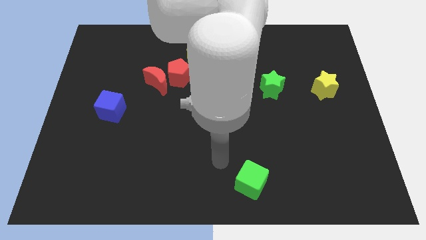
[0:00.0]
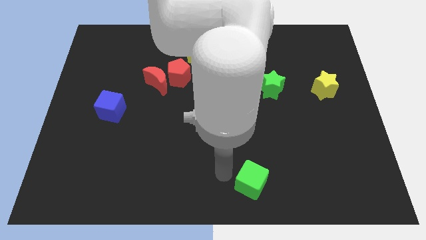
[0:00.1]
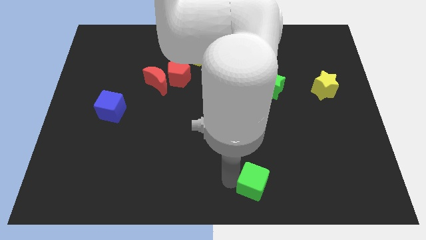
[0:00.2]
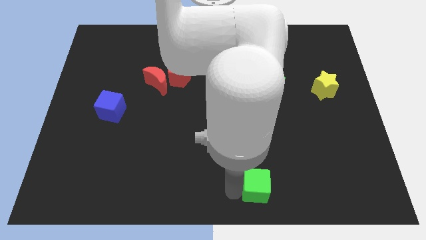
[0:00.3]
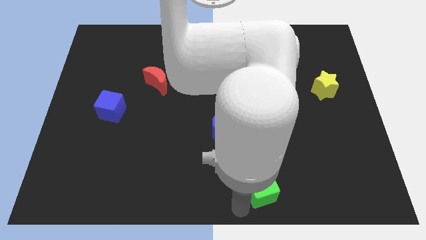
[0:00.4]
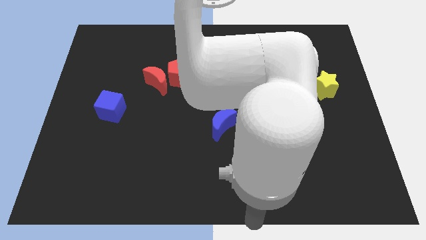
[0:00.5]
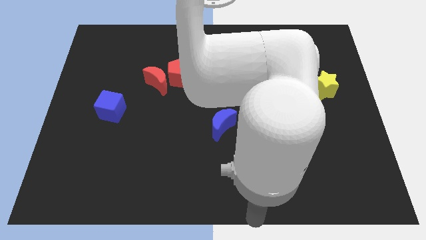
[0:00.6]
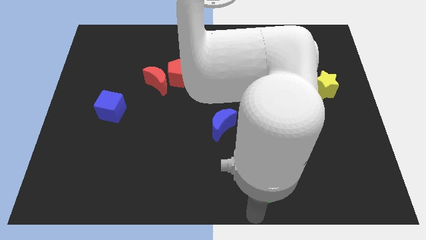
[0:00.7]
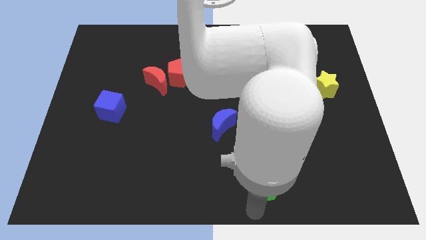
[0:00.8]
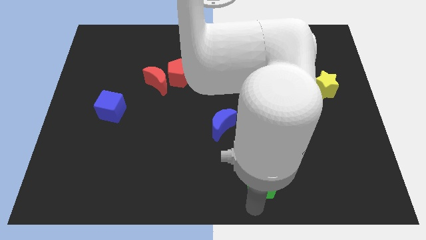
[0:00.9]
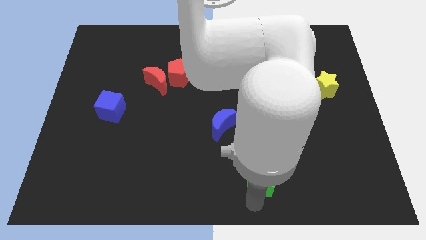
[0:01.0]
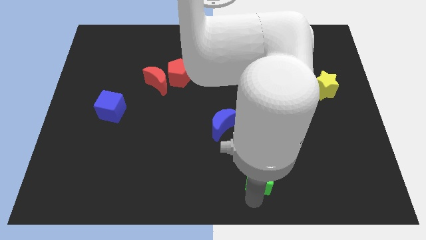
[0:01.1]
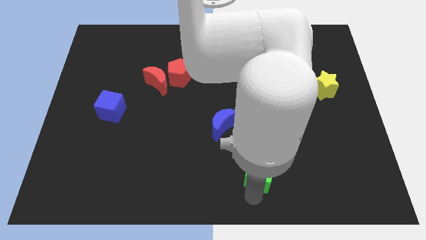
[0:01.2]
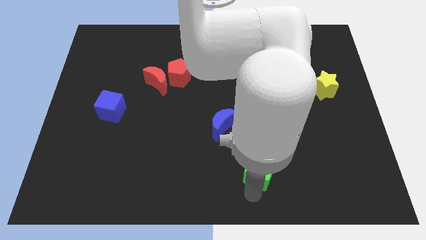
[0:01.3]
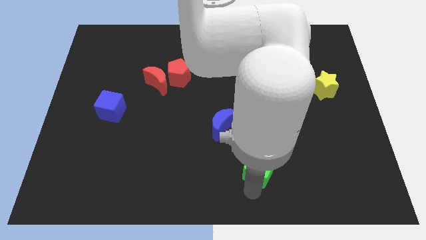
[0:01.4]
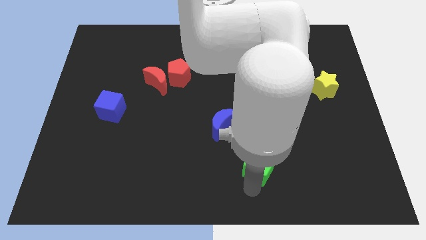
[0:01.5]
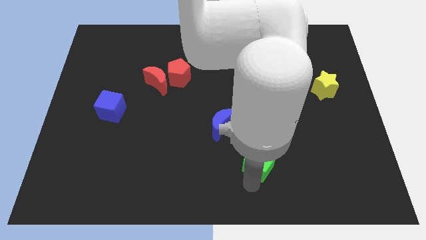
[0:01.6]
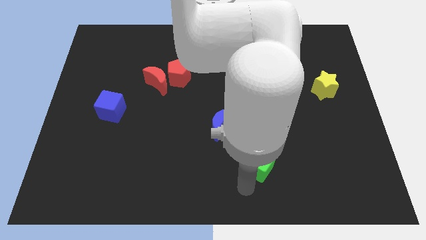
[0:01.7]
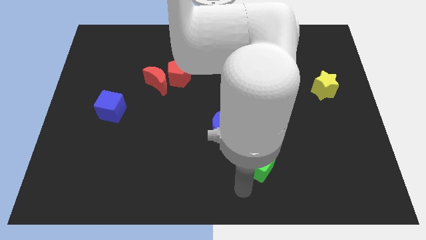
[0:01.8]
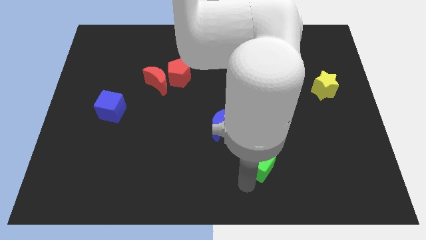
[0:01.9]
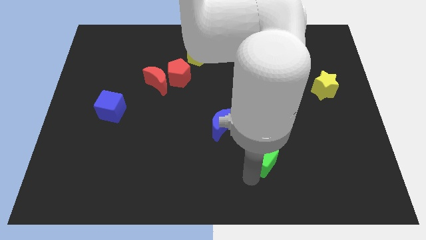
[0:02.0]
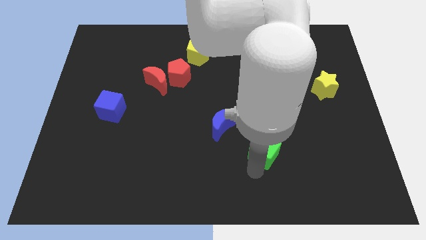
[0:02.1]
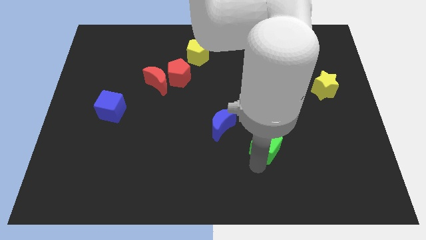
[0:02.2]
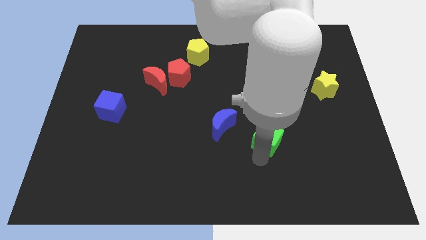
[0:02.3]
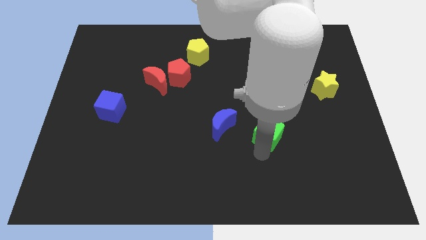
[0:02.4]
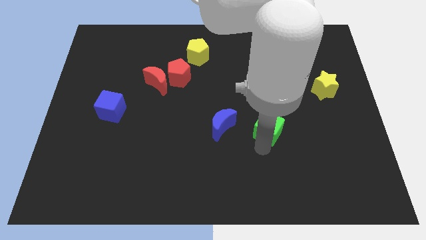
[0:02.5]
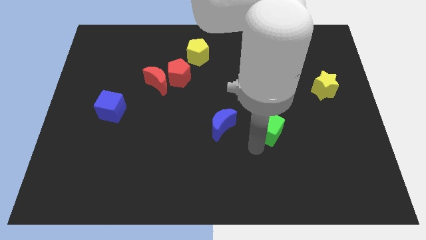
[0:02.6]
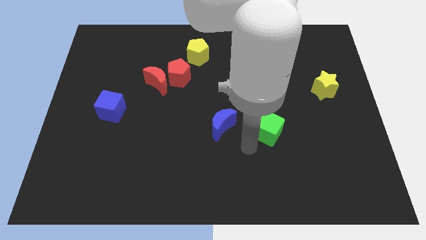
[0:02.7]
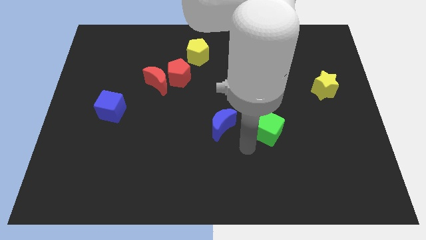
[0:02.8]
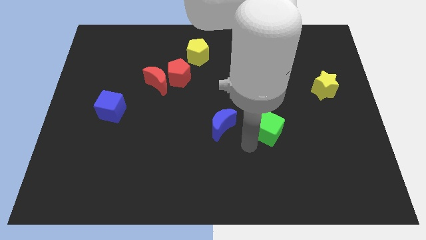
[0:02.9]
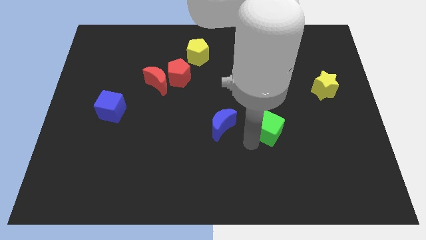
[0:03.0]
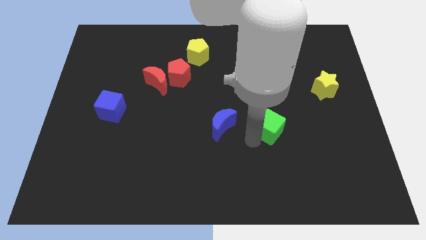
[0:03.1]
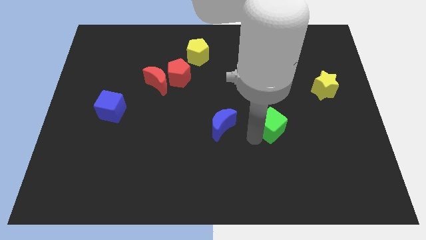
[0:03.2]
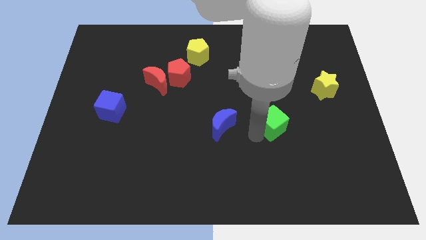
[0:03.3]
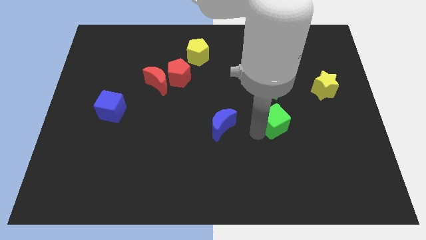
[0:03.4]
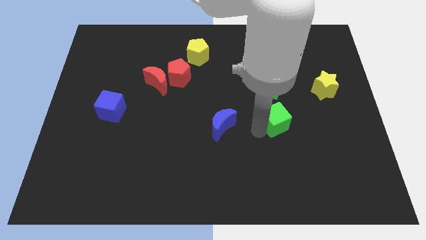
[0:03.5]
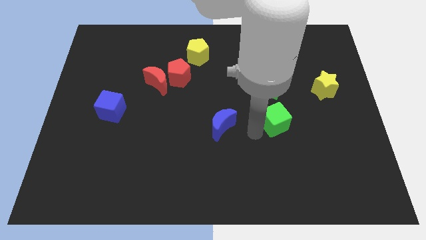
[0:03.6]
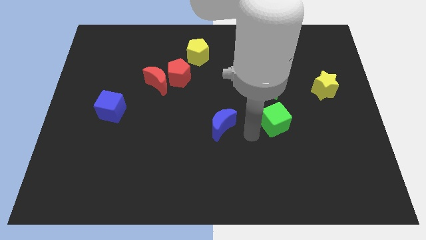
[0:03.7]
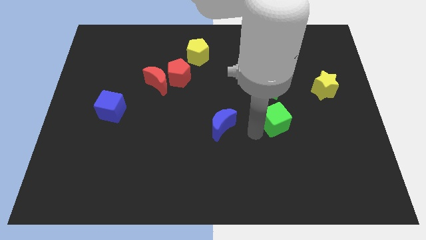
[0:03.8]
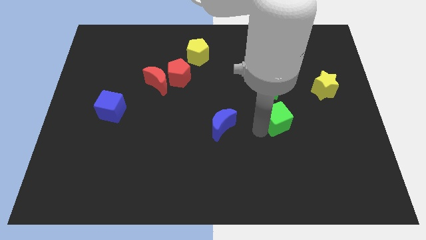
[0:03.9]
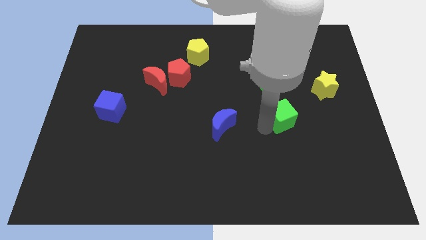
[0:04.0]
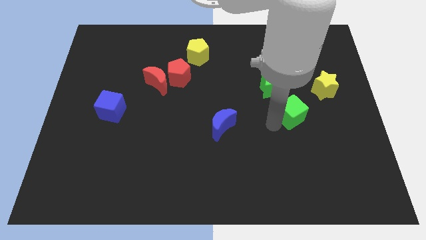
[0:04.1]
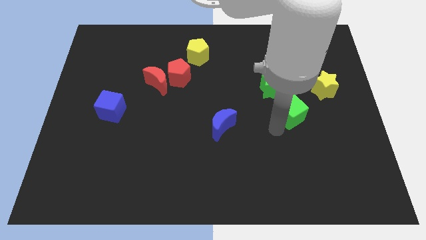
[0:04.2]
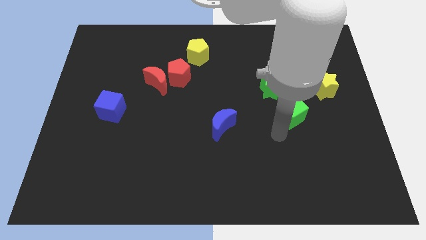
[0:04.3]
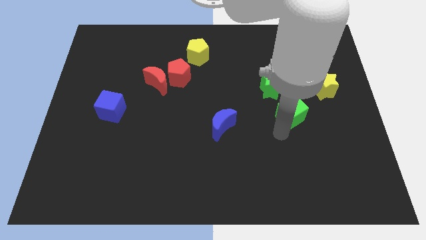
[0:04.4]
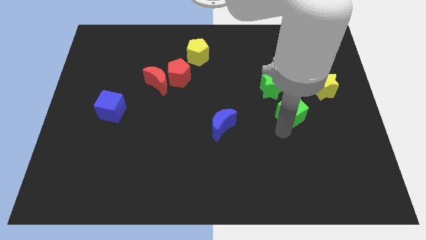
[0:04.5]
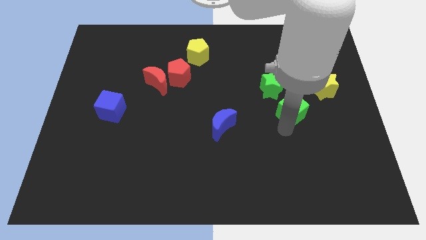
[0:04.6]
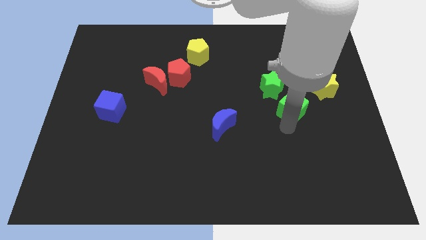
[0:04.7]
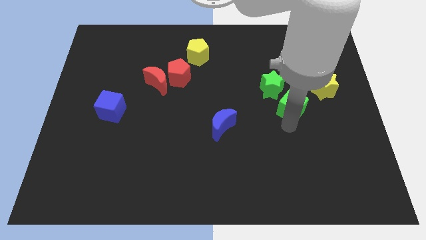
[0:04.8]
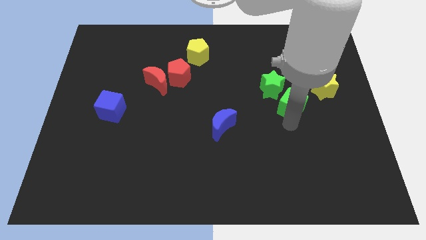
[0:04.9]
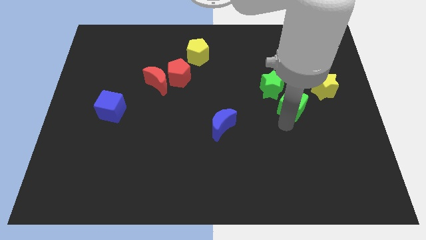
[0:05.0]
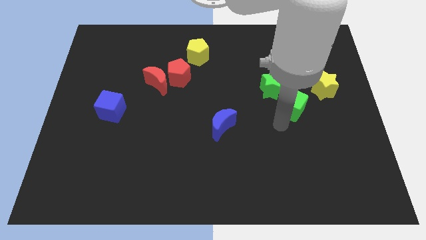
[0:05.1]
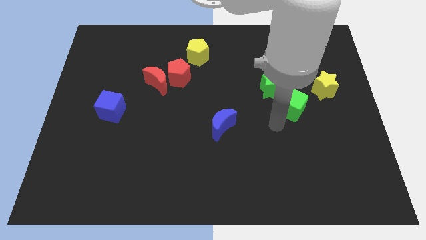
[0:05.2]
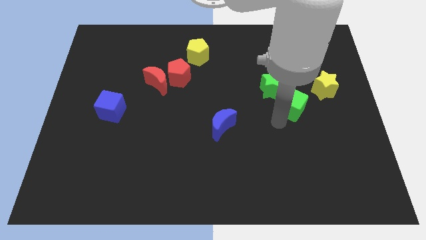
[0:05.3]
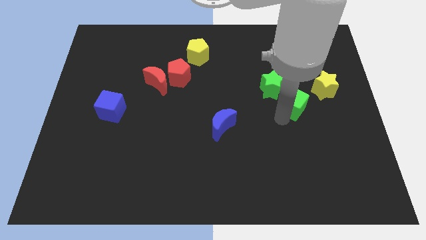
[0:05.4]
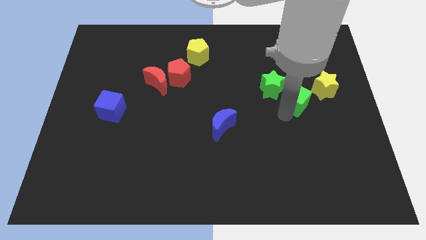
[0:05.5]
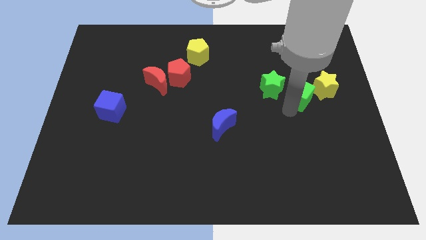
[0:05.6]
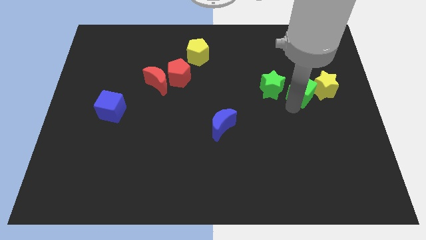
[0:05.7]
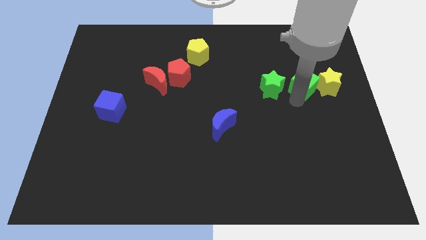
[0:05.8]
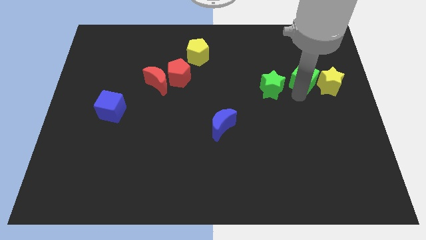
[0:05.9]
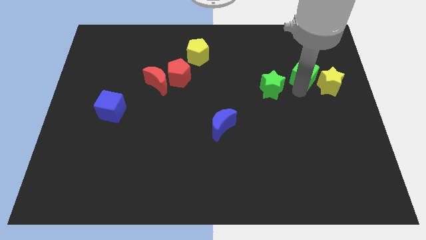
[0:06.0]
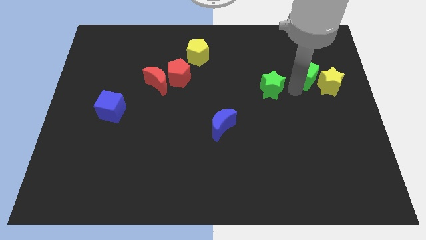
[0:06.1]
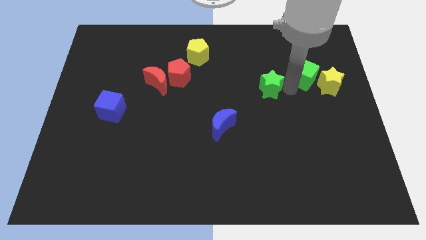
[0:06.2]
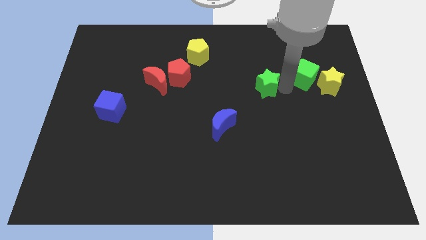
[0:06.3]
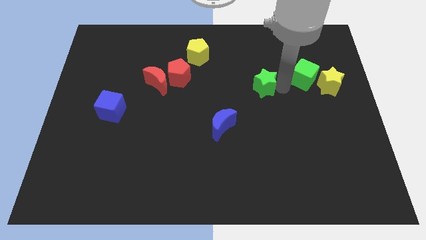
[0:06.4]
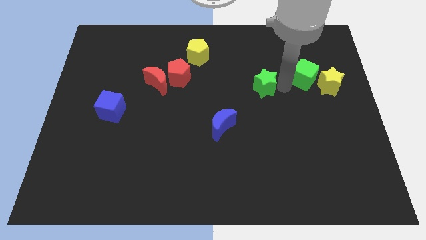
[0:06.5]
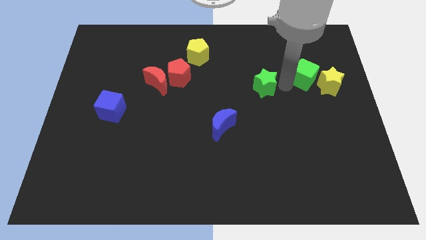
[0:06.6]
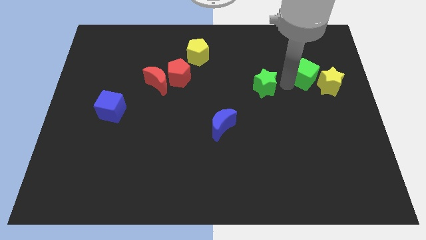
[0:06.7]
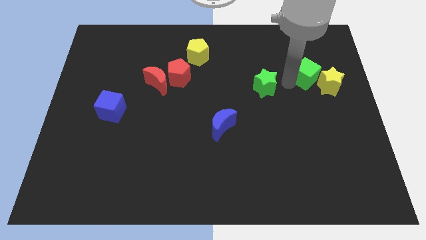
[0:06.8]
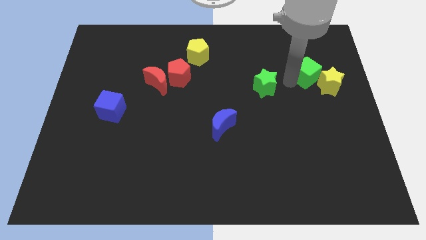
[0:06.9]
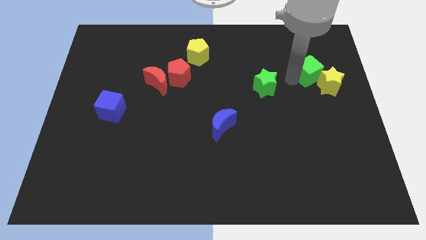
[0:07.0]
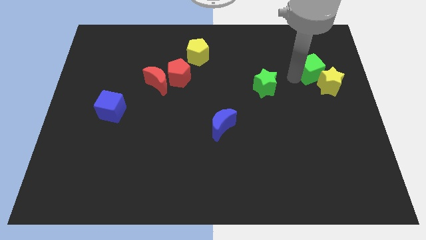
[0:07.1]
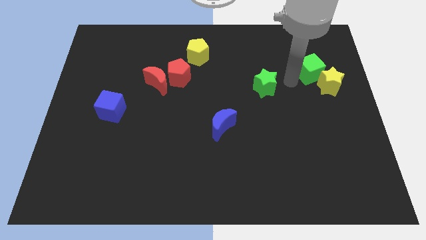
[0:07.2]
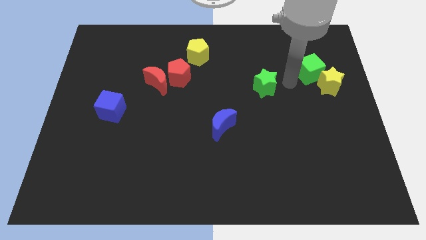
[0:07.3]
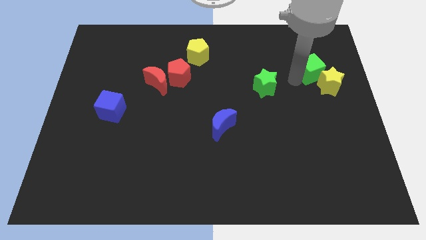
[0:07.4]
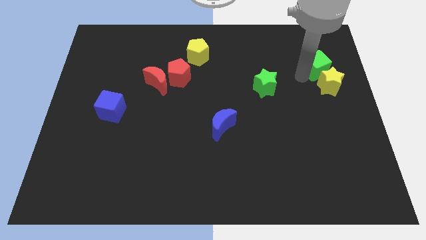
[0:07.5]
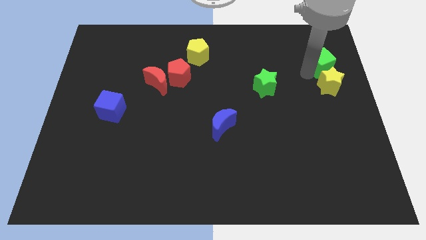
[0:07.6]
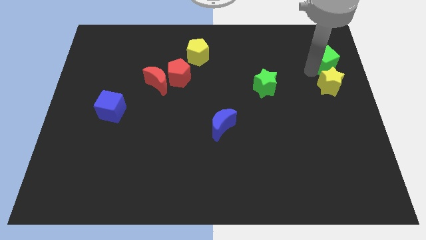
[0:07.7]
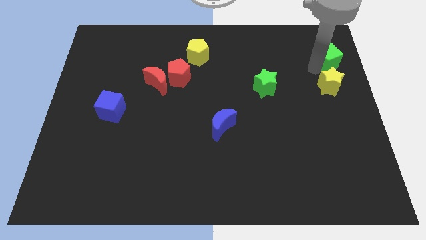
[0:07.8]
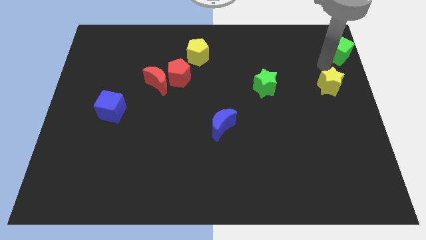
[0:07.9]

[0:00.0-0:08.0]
push the green cube to the top right
